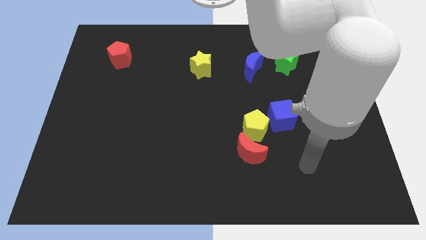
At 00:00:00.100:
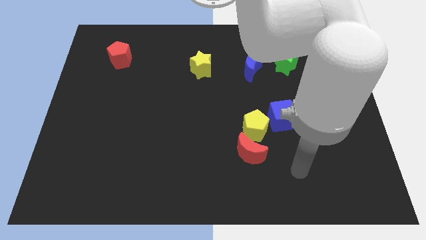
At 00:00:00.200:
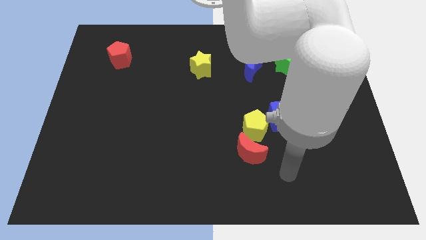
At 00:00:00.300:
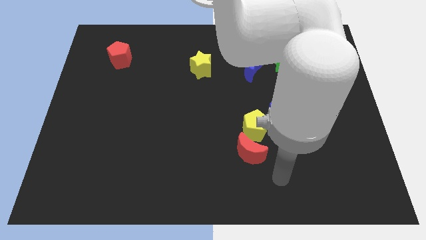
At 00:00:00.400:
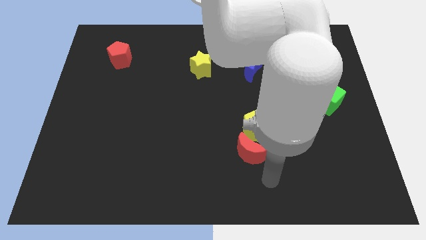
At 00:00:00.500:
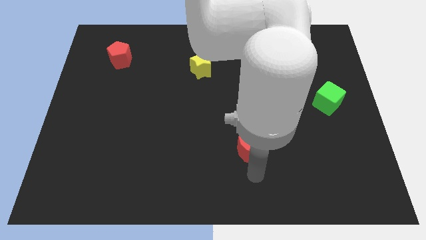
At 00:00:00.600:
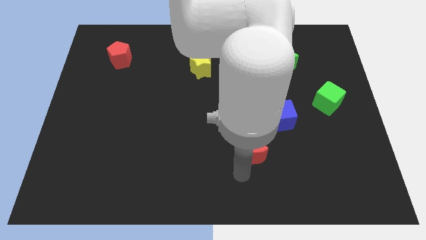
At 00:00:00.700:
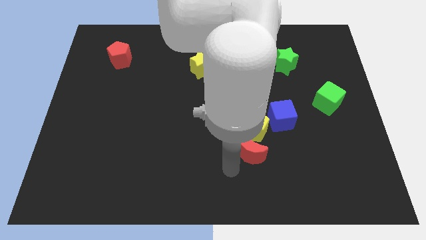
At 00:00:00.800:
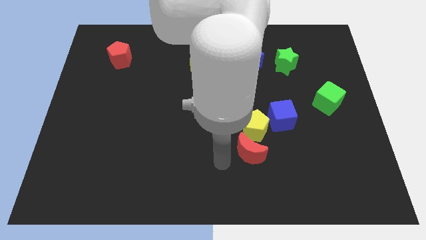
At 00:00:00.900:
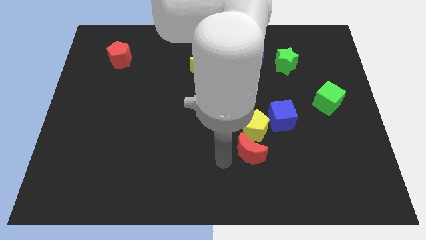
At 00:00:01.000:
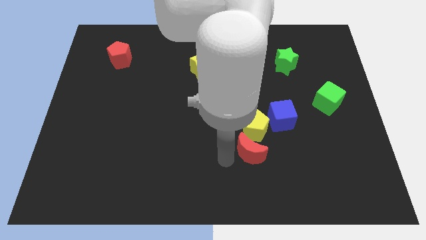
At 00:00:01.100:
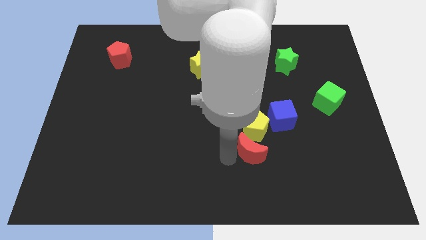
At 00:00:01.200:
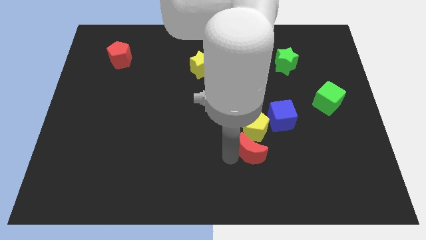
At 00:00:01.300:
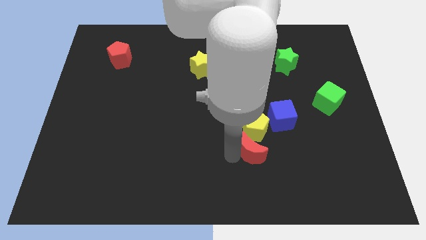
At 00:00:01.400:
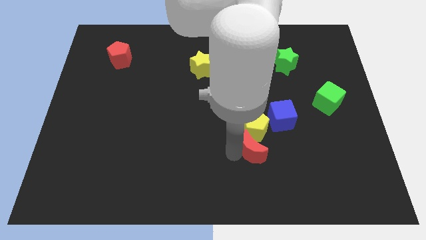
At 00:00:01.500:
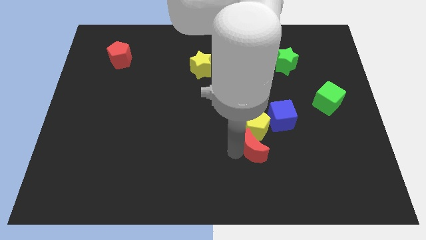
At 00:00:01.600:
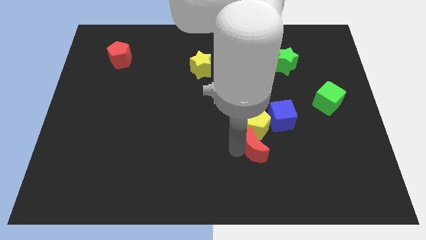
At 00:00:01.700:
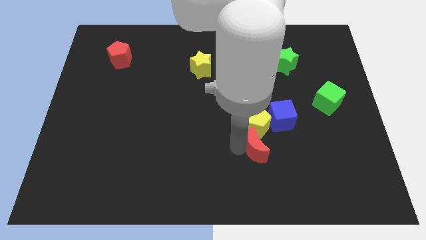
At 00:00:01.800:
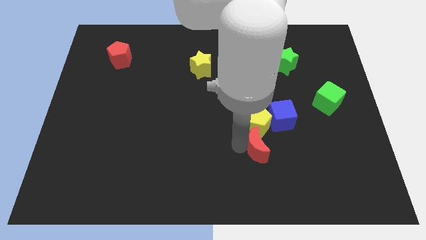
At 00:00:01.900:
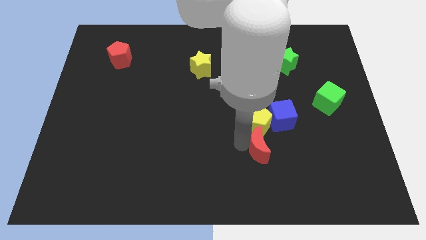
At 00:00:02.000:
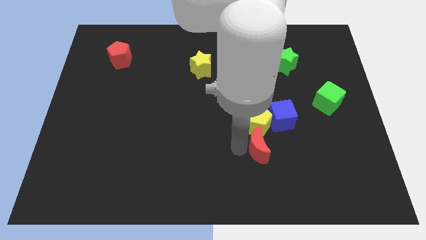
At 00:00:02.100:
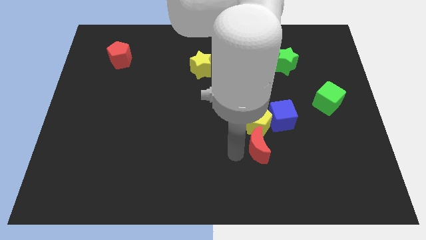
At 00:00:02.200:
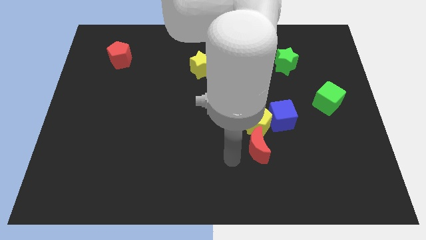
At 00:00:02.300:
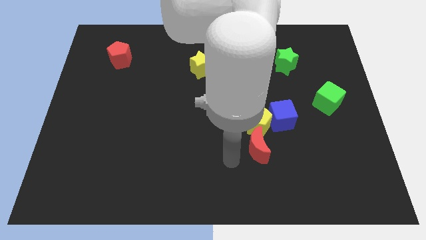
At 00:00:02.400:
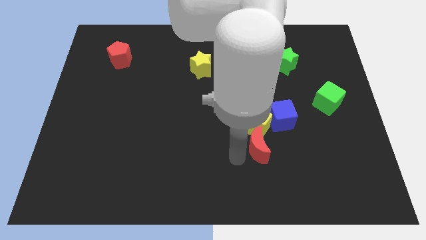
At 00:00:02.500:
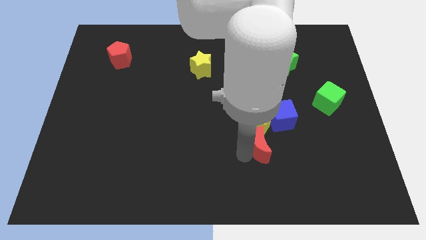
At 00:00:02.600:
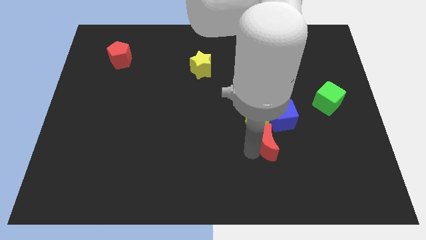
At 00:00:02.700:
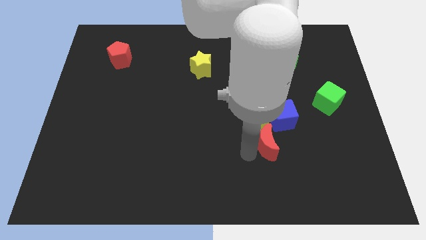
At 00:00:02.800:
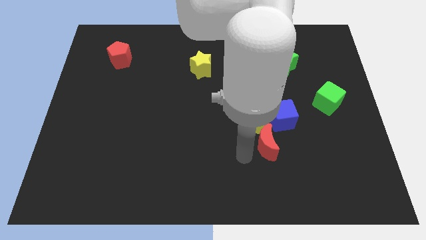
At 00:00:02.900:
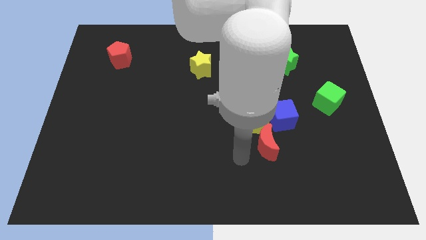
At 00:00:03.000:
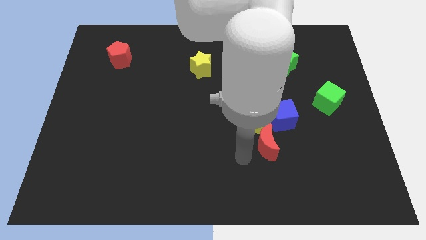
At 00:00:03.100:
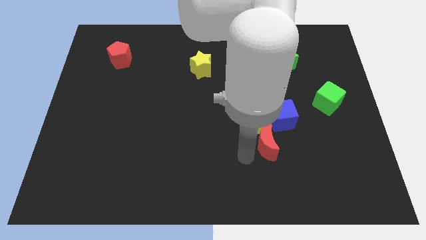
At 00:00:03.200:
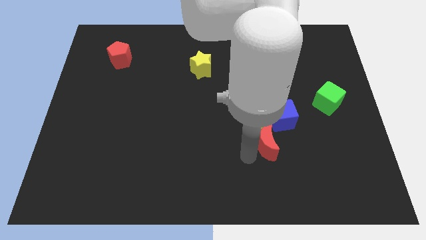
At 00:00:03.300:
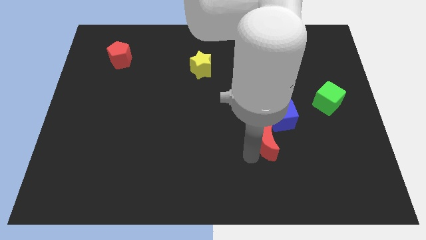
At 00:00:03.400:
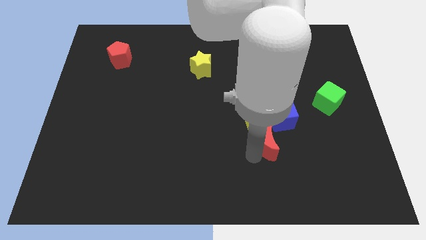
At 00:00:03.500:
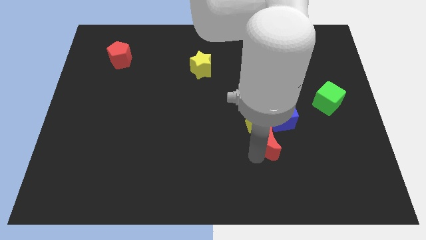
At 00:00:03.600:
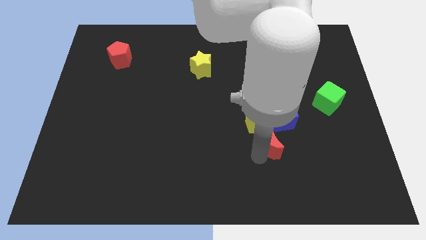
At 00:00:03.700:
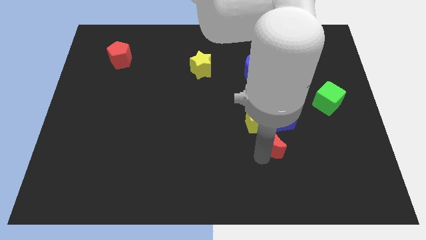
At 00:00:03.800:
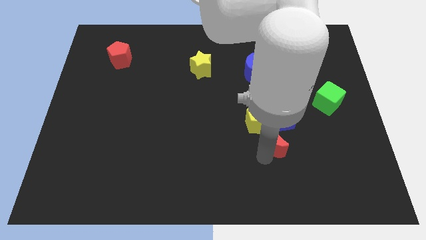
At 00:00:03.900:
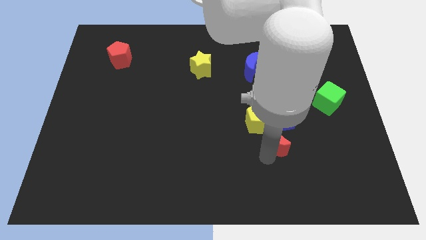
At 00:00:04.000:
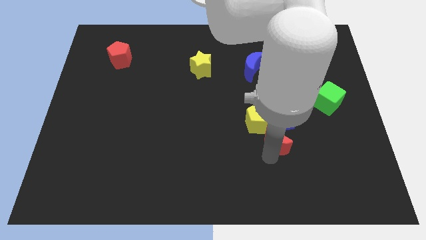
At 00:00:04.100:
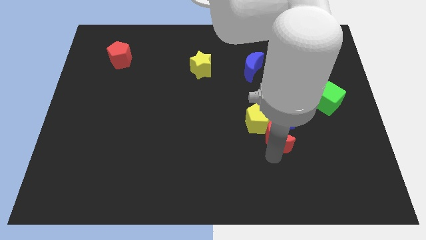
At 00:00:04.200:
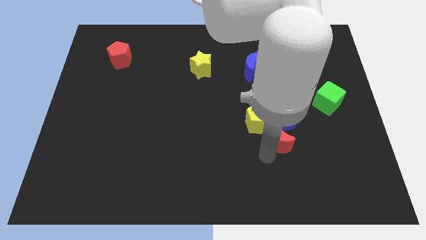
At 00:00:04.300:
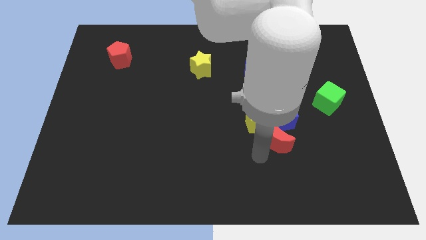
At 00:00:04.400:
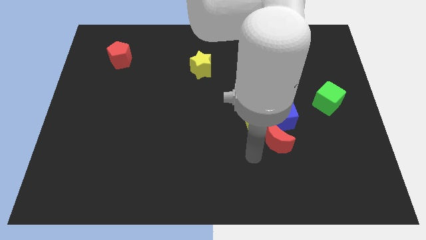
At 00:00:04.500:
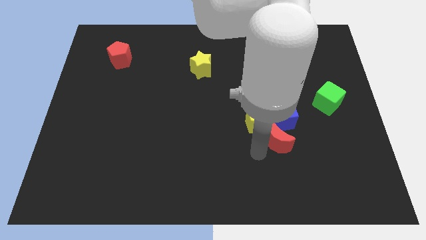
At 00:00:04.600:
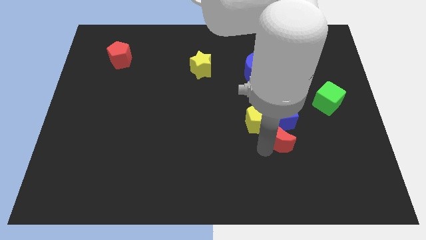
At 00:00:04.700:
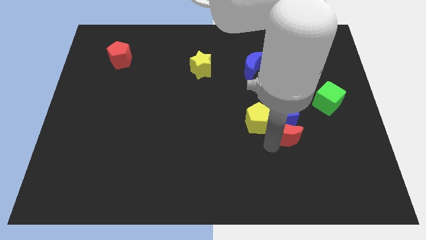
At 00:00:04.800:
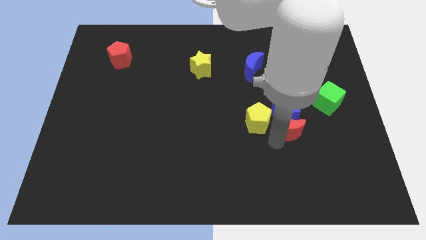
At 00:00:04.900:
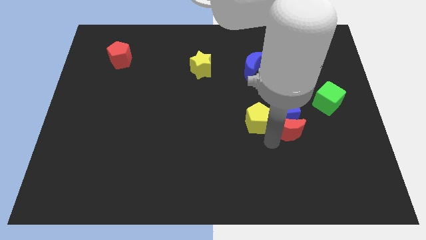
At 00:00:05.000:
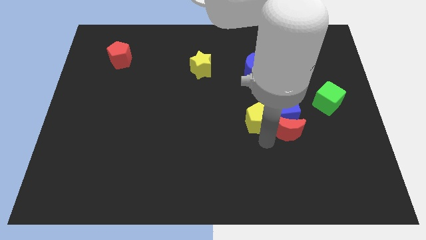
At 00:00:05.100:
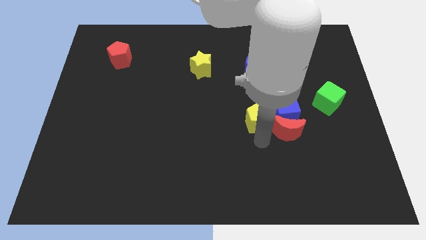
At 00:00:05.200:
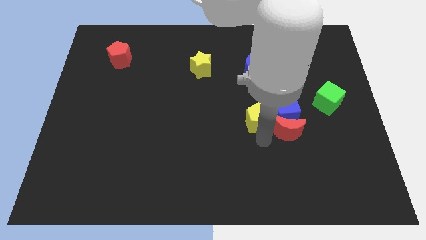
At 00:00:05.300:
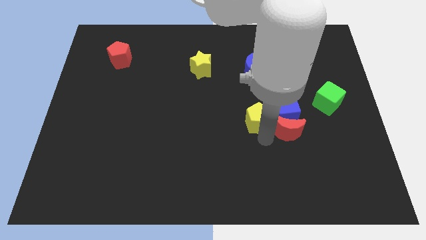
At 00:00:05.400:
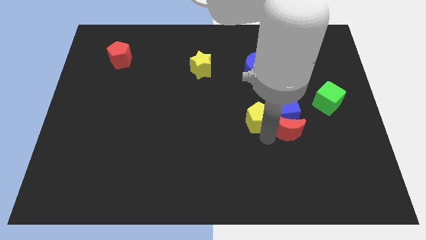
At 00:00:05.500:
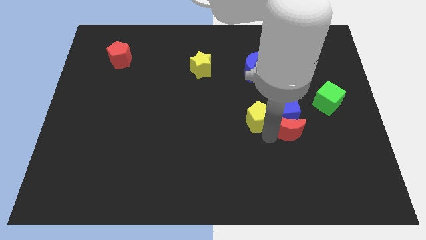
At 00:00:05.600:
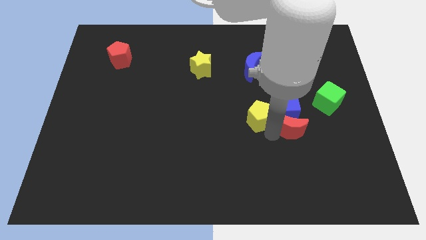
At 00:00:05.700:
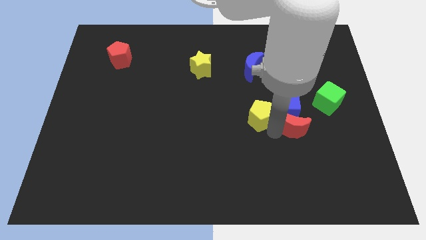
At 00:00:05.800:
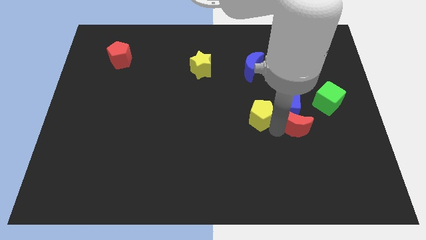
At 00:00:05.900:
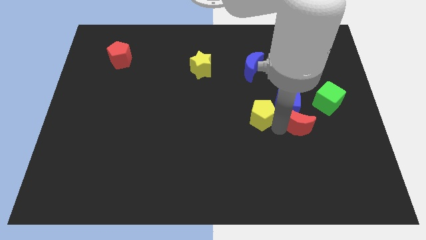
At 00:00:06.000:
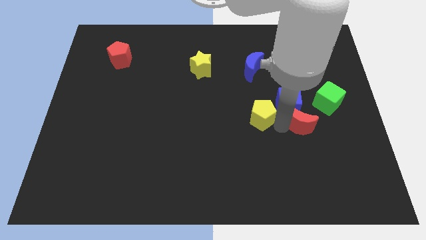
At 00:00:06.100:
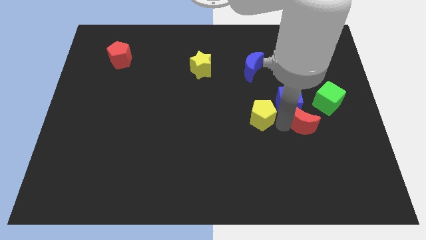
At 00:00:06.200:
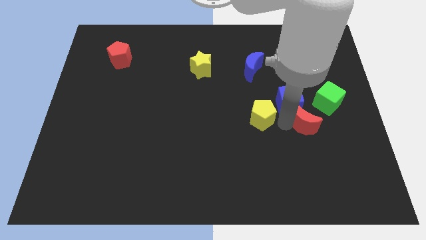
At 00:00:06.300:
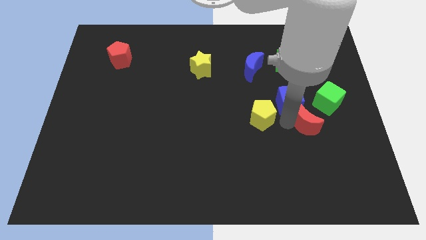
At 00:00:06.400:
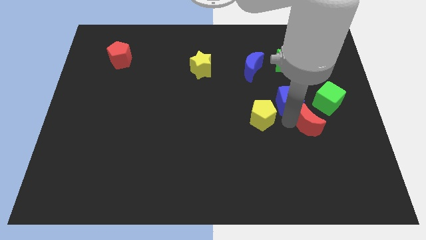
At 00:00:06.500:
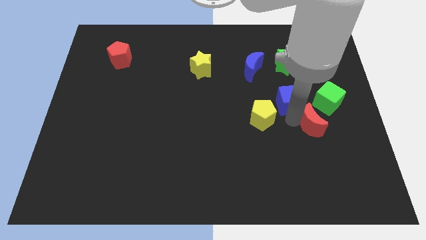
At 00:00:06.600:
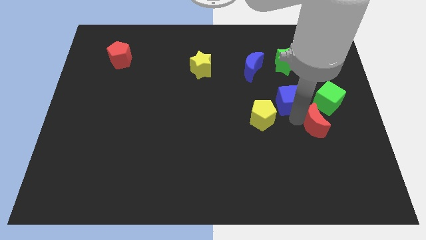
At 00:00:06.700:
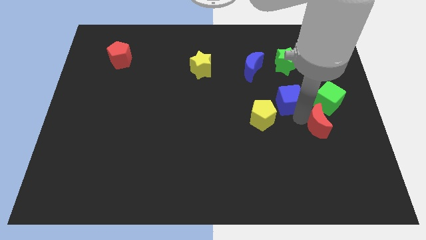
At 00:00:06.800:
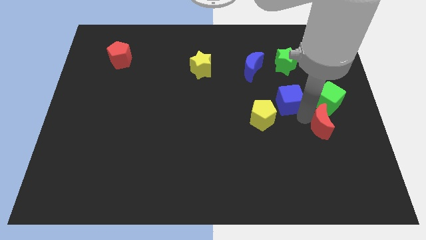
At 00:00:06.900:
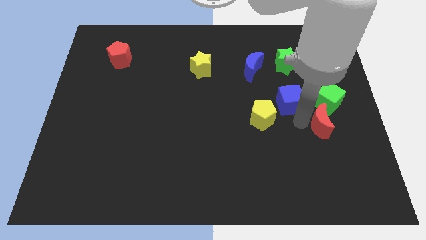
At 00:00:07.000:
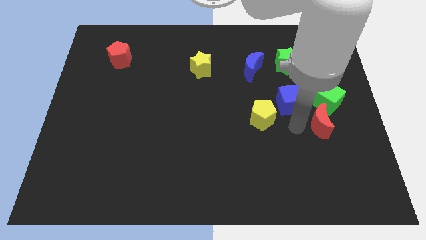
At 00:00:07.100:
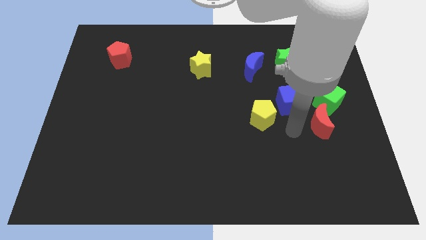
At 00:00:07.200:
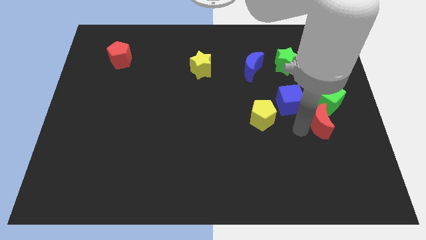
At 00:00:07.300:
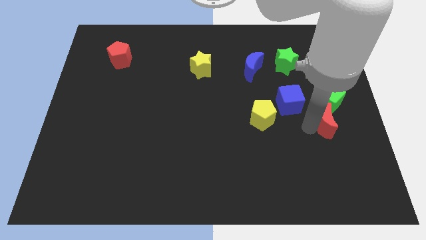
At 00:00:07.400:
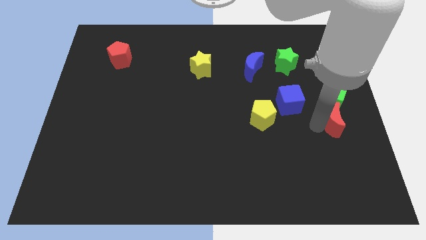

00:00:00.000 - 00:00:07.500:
move the red moon to the right side of the board
